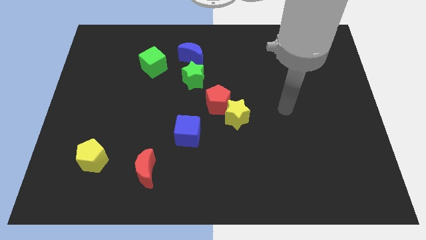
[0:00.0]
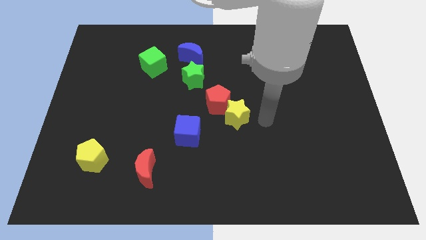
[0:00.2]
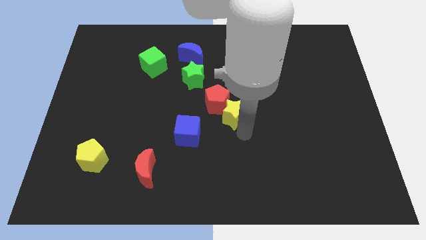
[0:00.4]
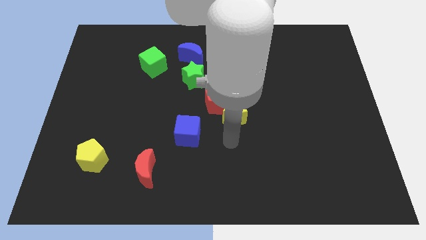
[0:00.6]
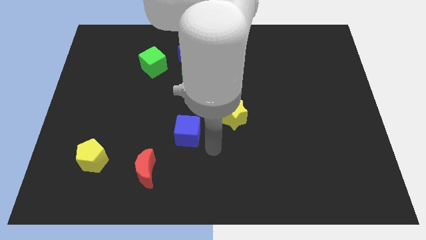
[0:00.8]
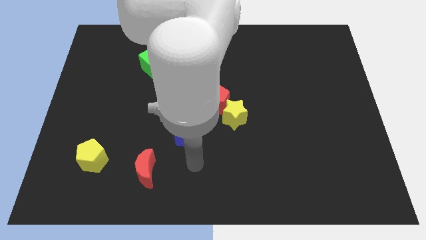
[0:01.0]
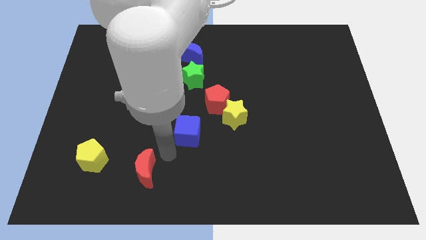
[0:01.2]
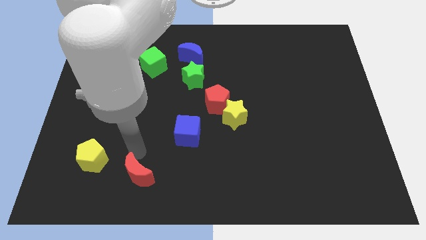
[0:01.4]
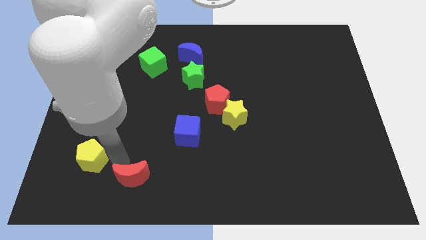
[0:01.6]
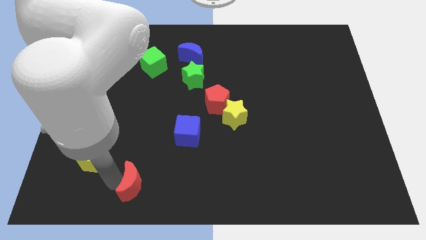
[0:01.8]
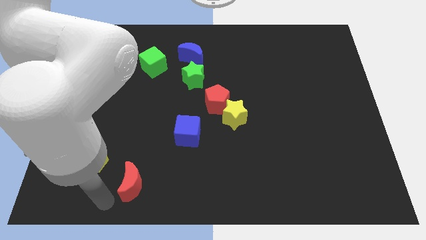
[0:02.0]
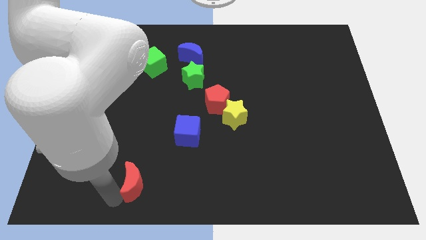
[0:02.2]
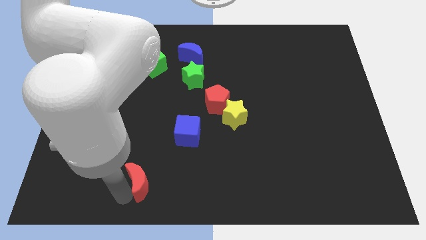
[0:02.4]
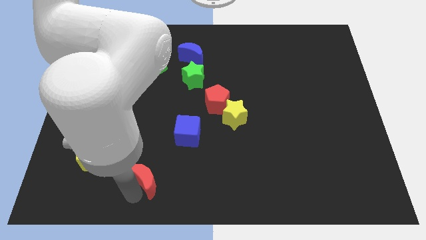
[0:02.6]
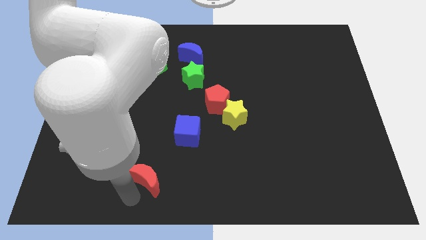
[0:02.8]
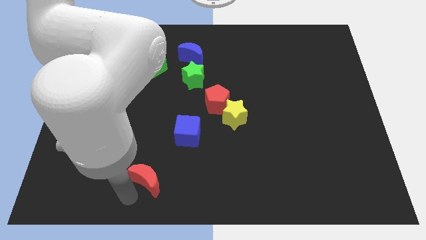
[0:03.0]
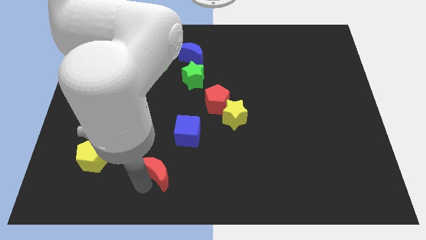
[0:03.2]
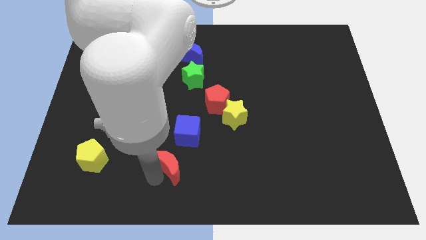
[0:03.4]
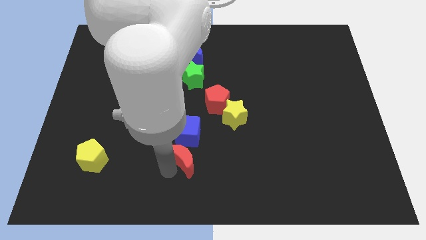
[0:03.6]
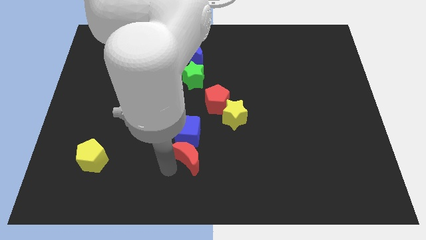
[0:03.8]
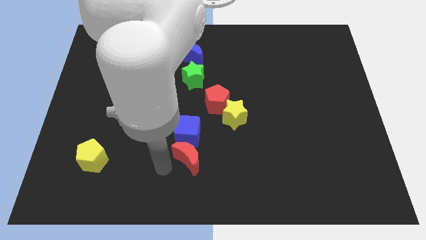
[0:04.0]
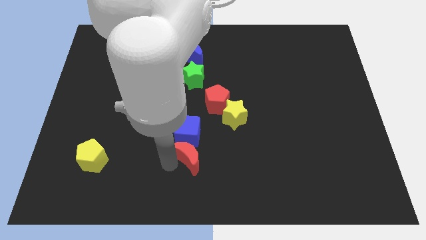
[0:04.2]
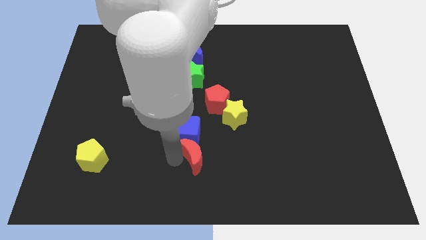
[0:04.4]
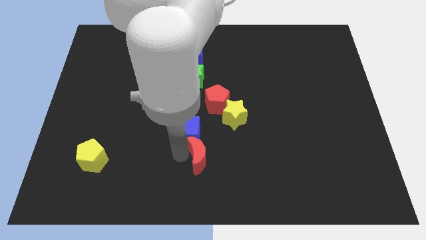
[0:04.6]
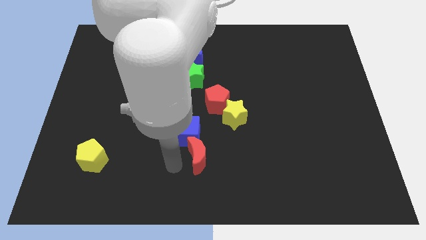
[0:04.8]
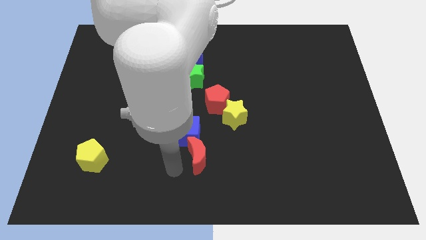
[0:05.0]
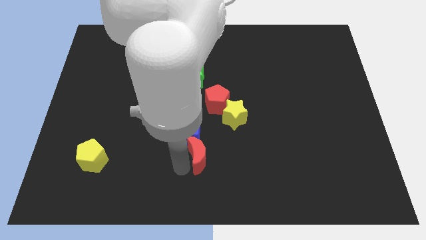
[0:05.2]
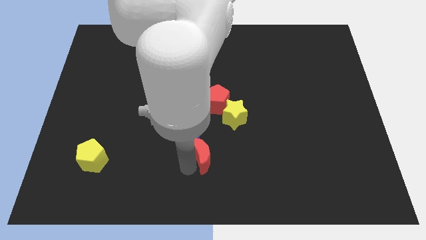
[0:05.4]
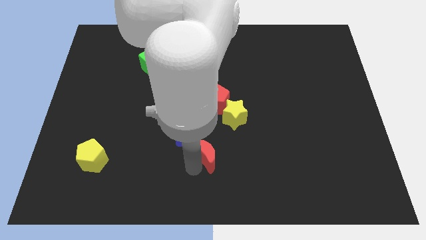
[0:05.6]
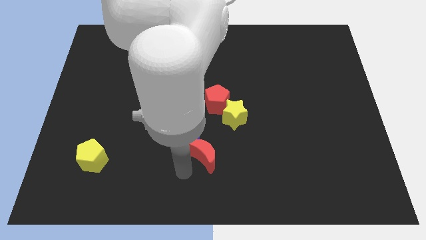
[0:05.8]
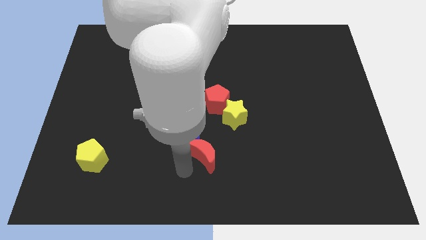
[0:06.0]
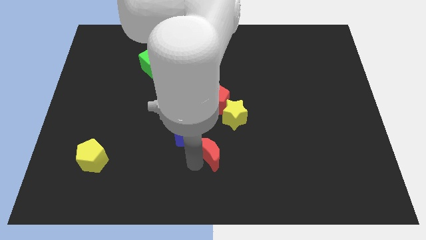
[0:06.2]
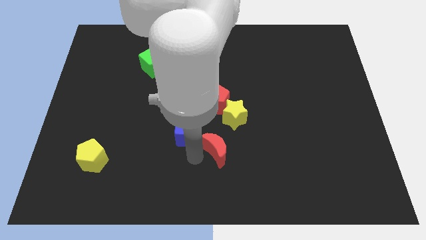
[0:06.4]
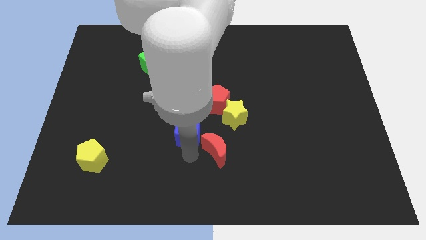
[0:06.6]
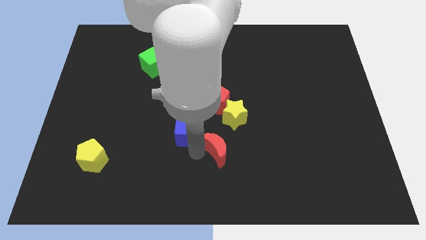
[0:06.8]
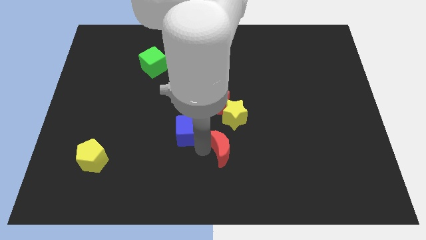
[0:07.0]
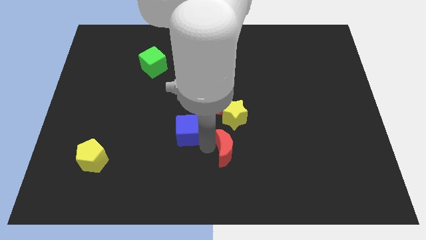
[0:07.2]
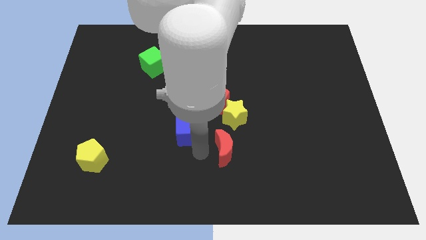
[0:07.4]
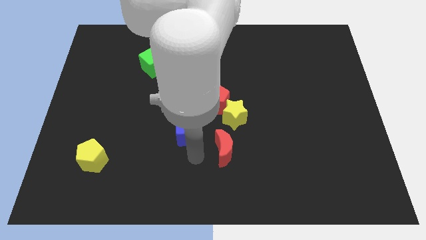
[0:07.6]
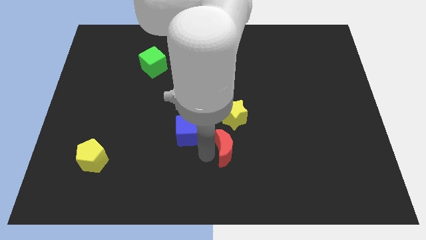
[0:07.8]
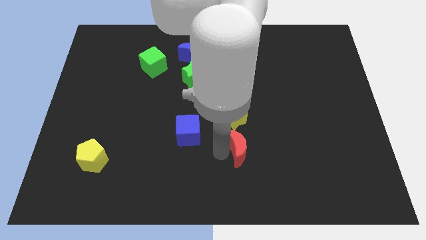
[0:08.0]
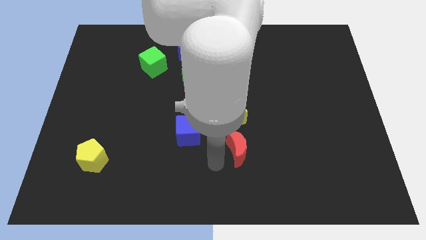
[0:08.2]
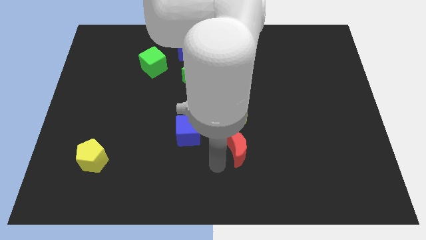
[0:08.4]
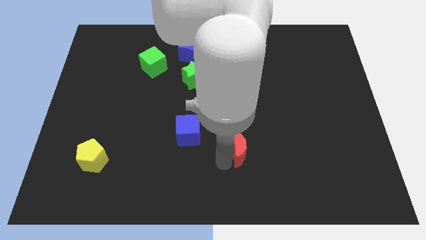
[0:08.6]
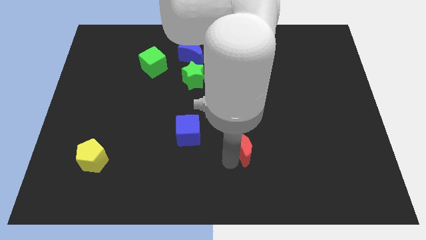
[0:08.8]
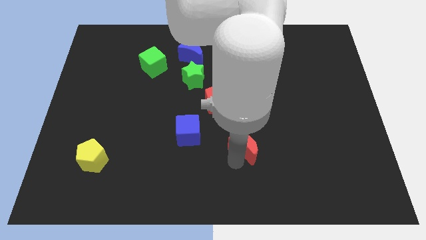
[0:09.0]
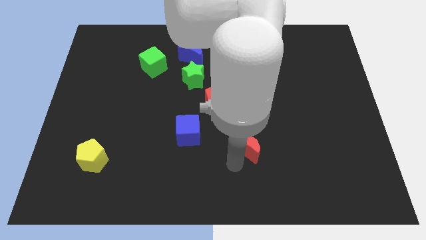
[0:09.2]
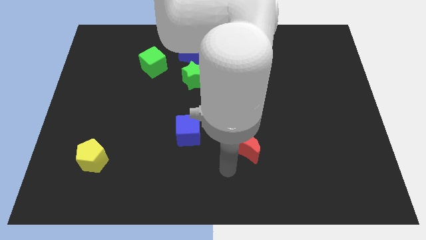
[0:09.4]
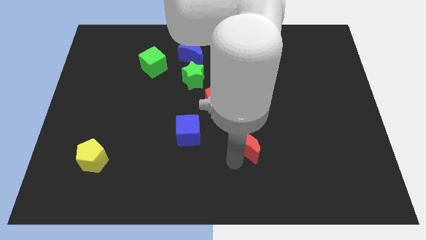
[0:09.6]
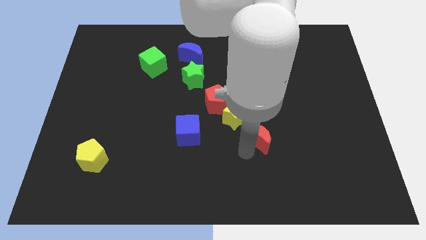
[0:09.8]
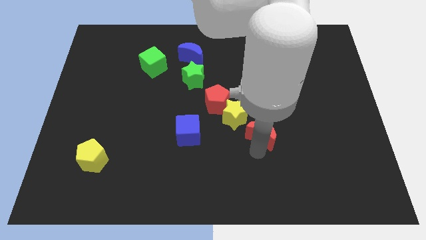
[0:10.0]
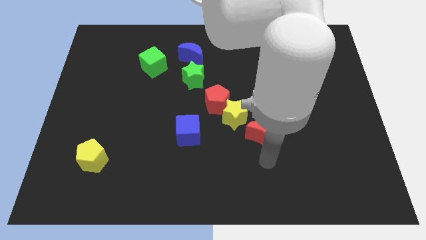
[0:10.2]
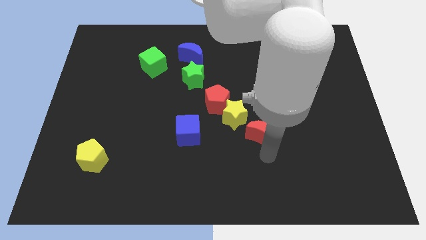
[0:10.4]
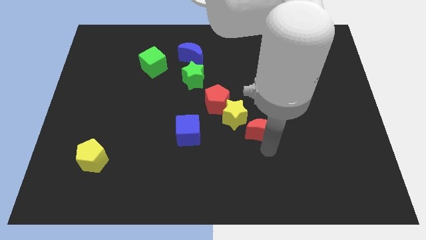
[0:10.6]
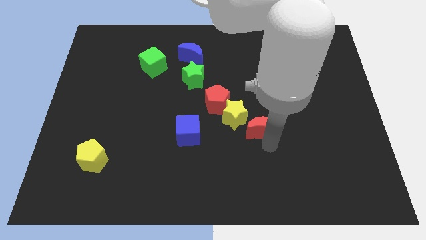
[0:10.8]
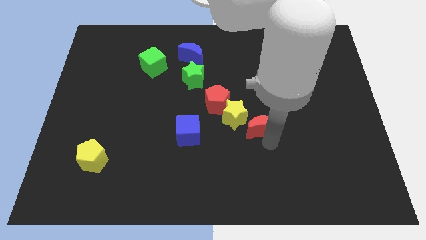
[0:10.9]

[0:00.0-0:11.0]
push the red moon upwards and to the right diagonally

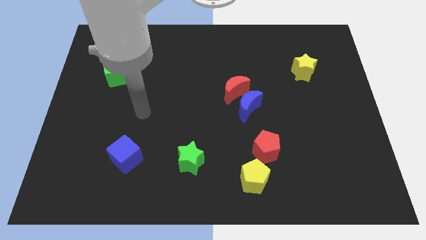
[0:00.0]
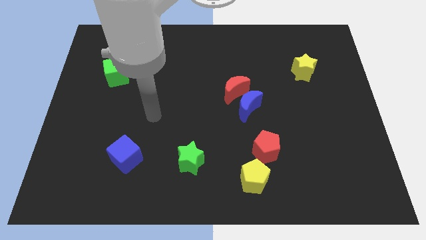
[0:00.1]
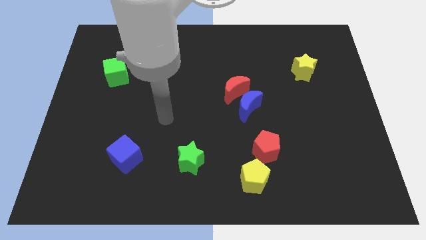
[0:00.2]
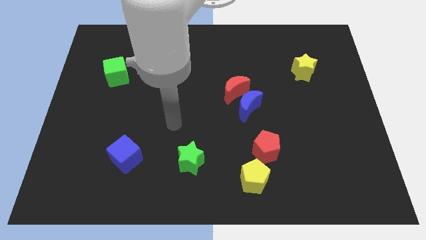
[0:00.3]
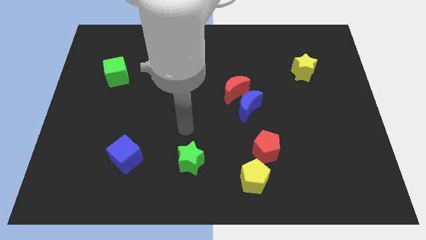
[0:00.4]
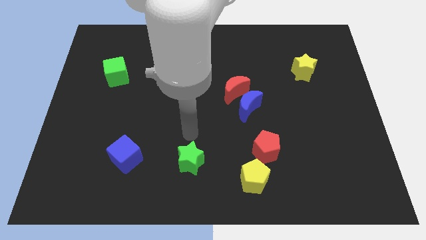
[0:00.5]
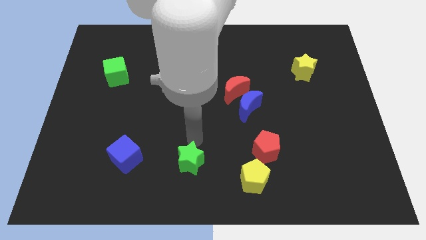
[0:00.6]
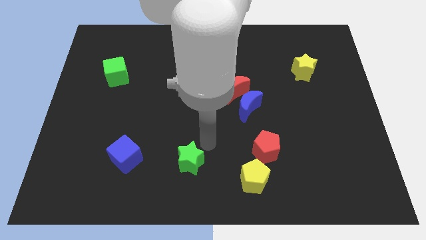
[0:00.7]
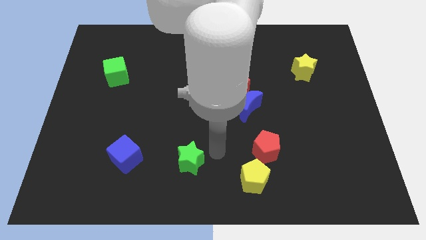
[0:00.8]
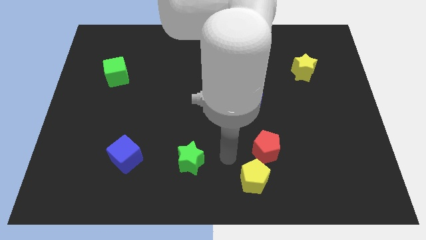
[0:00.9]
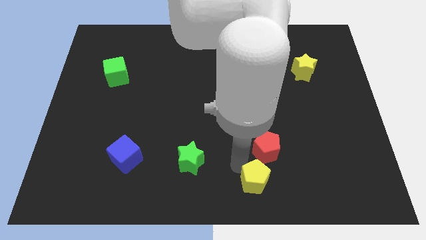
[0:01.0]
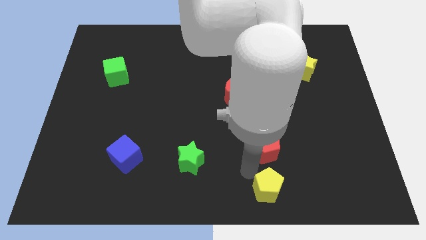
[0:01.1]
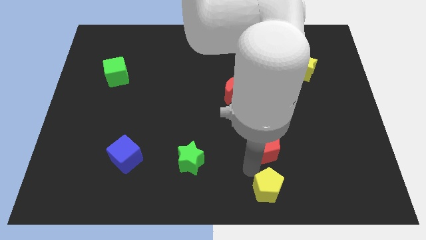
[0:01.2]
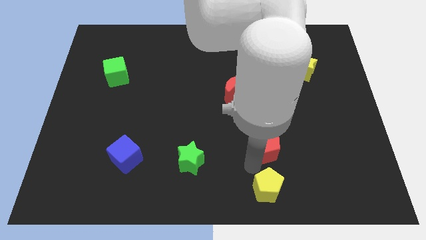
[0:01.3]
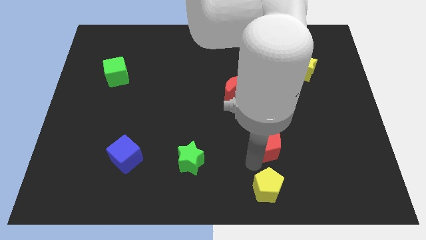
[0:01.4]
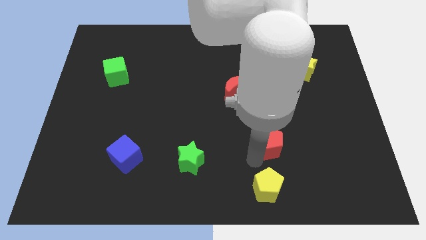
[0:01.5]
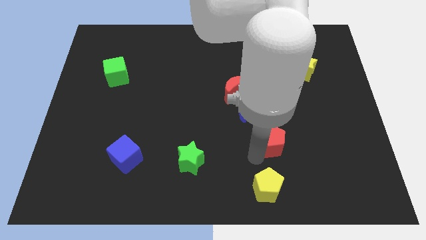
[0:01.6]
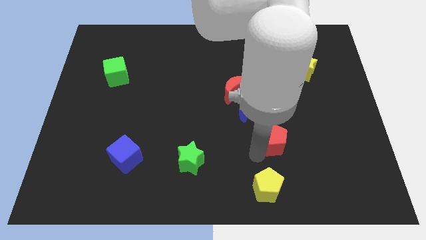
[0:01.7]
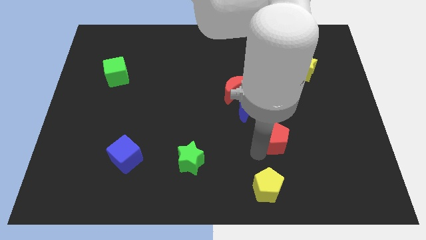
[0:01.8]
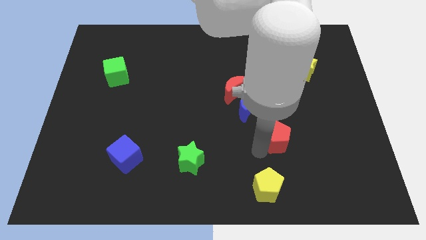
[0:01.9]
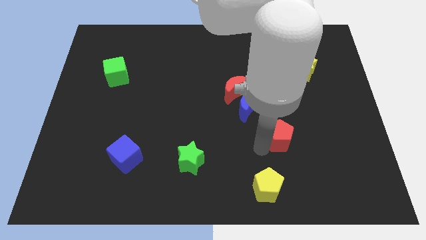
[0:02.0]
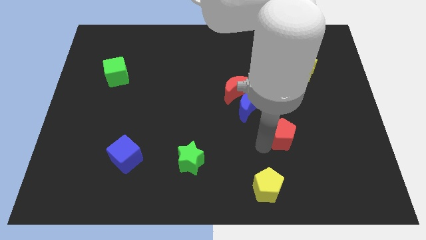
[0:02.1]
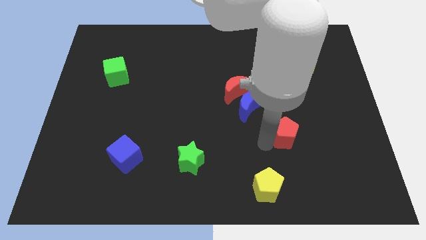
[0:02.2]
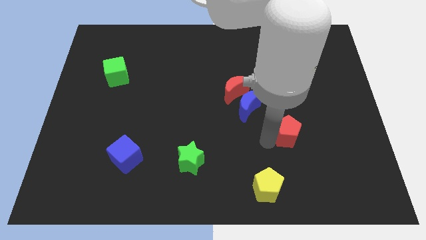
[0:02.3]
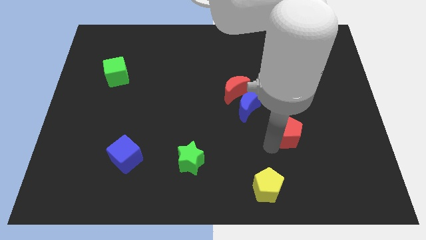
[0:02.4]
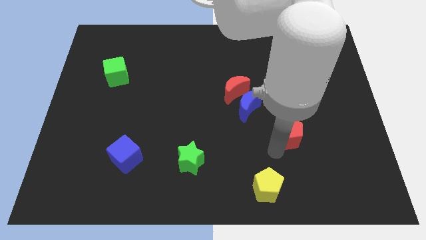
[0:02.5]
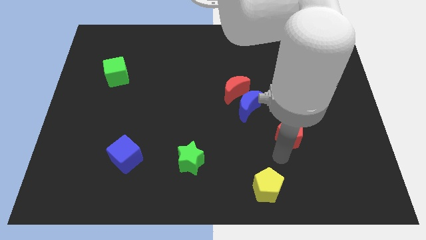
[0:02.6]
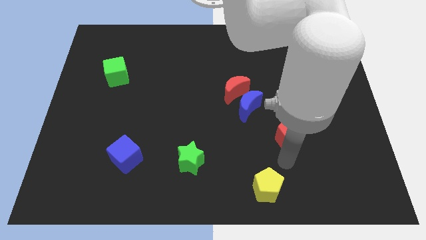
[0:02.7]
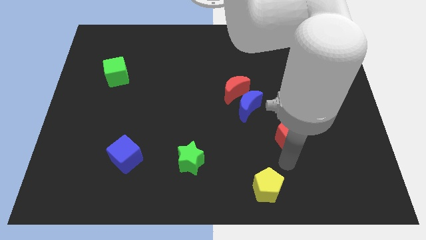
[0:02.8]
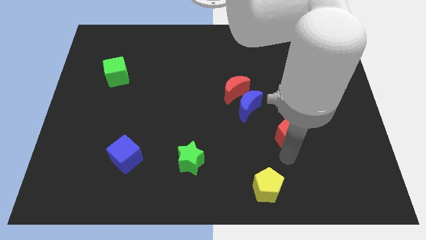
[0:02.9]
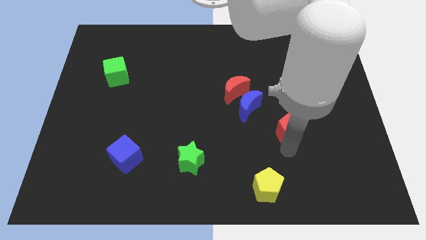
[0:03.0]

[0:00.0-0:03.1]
move the red pentagon slightly up and right diagonally
